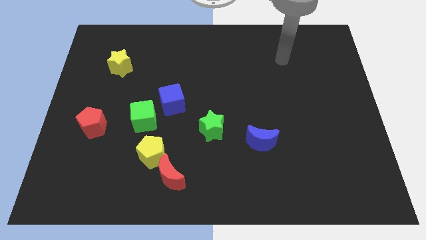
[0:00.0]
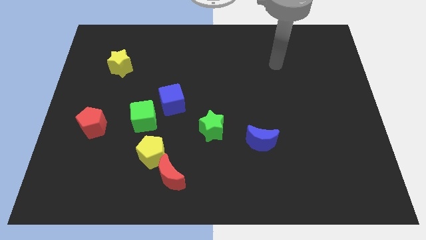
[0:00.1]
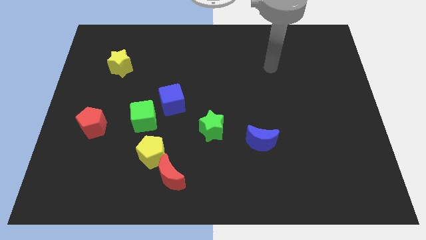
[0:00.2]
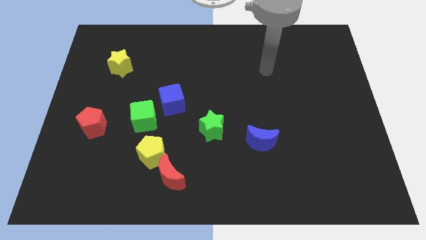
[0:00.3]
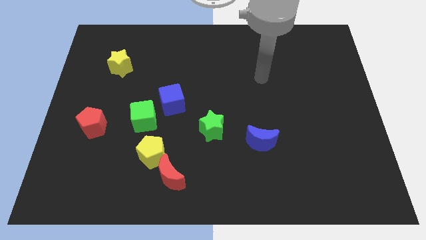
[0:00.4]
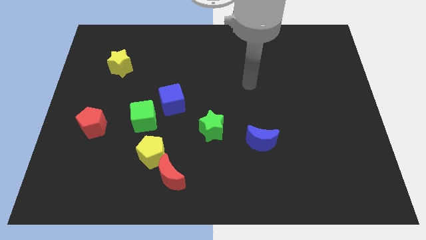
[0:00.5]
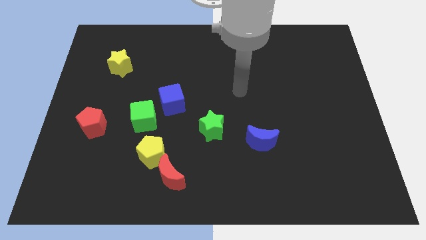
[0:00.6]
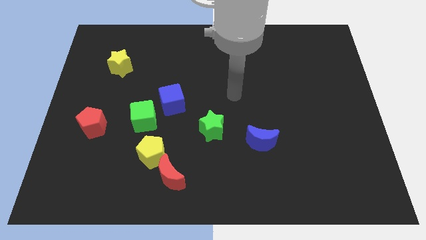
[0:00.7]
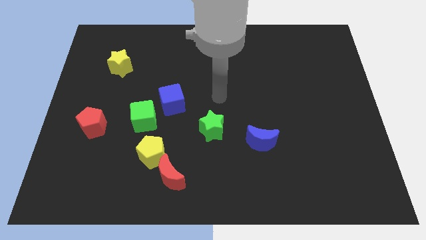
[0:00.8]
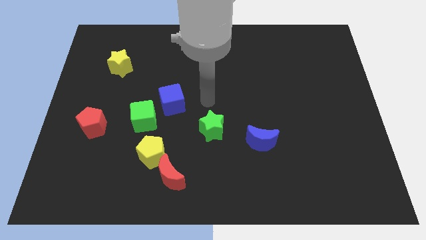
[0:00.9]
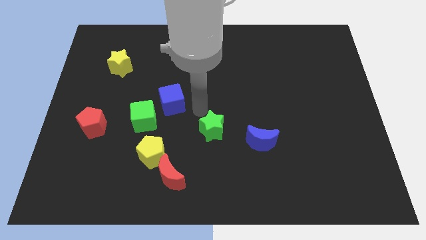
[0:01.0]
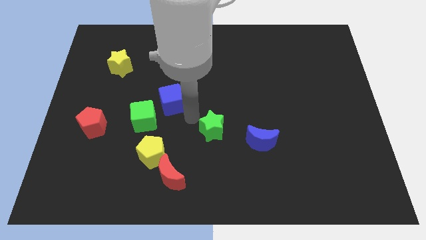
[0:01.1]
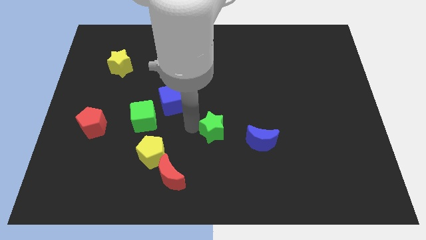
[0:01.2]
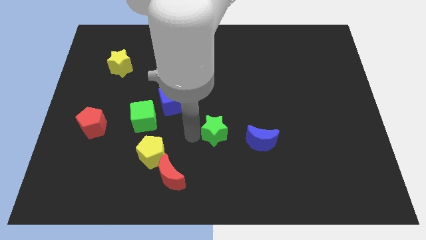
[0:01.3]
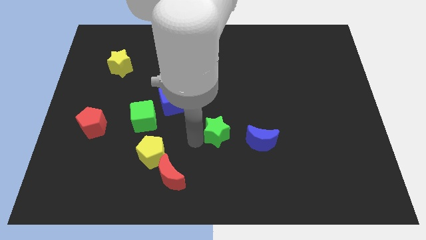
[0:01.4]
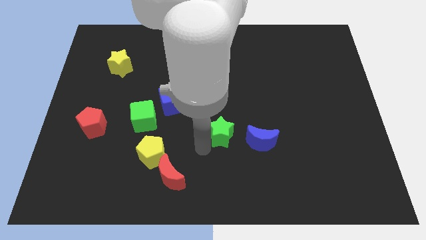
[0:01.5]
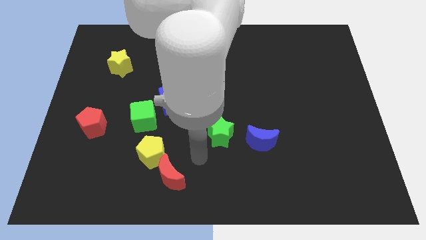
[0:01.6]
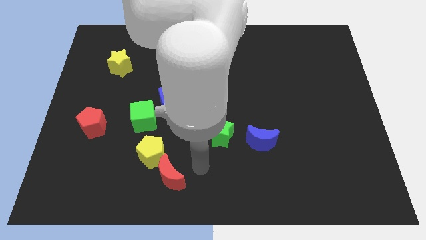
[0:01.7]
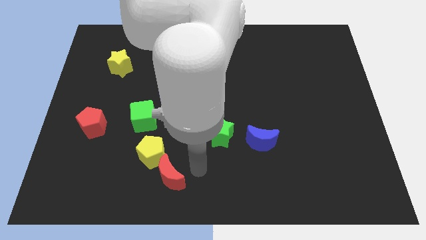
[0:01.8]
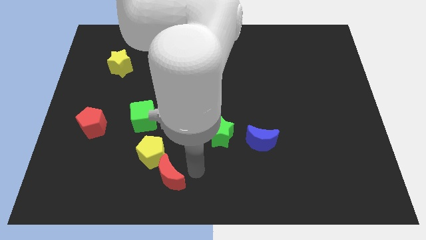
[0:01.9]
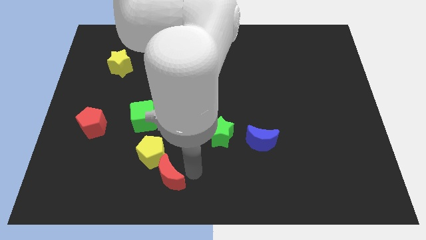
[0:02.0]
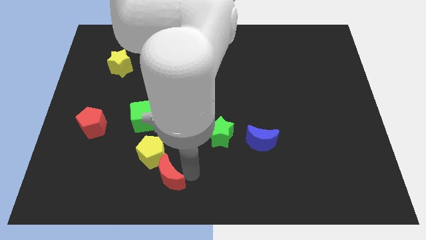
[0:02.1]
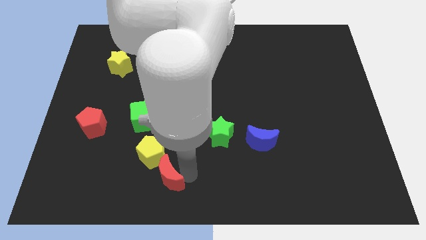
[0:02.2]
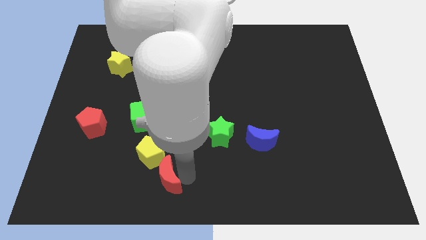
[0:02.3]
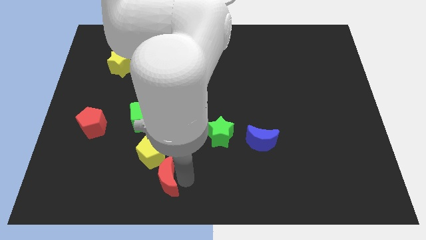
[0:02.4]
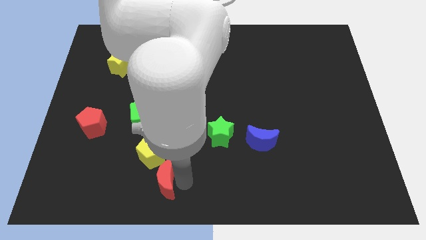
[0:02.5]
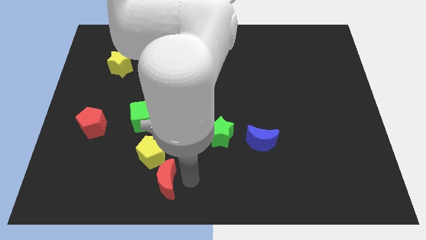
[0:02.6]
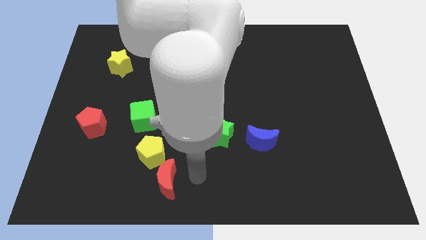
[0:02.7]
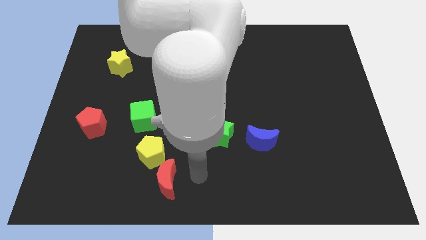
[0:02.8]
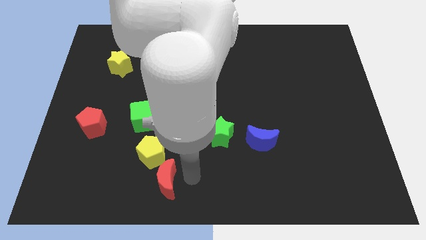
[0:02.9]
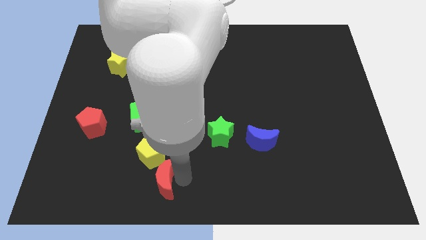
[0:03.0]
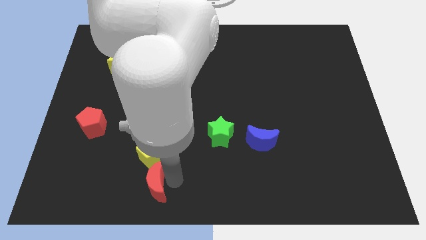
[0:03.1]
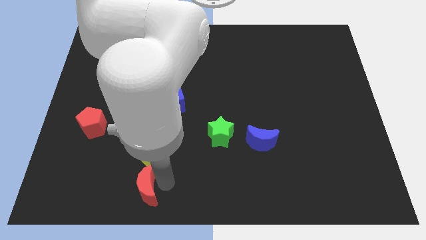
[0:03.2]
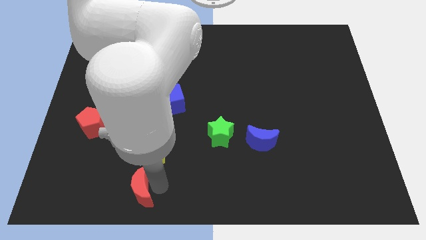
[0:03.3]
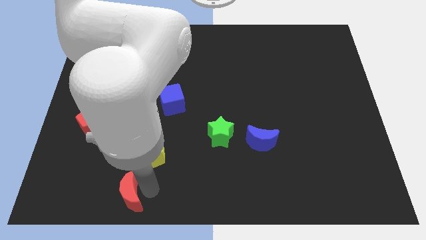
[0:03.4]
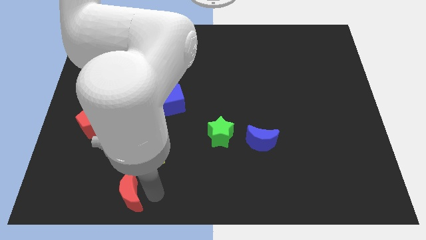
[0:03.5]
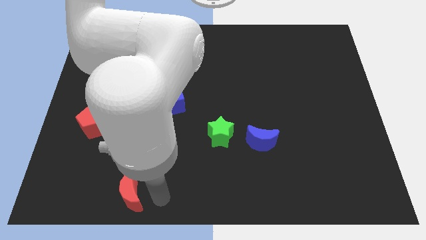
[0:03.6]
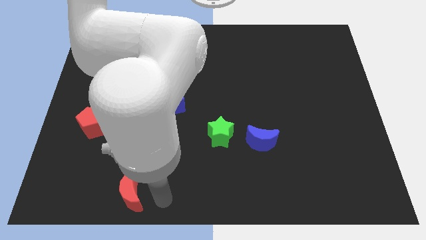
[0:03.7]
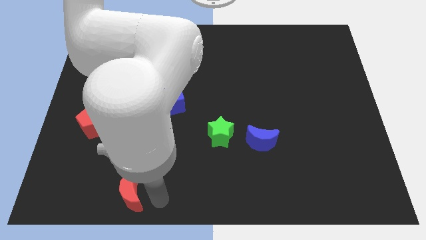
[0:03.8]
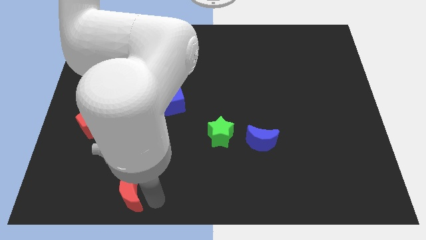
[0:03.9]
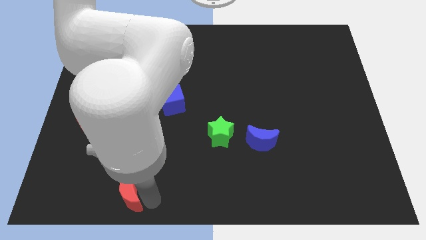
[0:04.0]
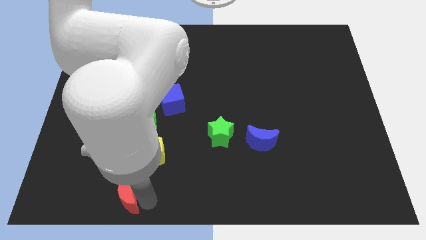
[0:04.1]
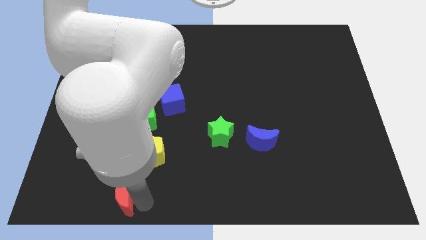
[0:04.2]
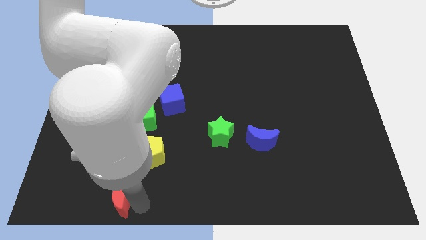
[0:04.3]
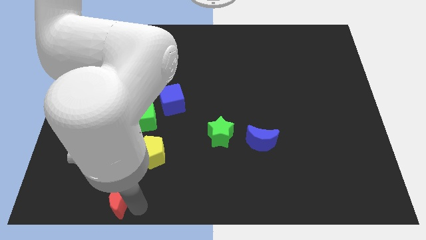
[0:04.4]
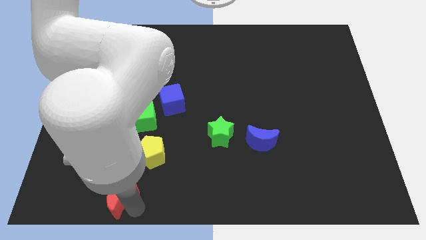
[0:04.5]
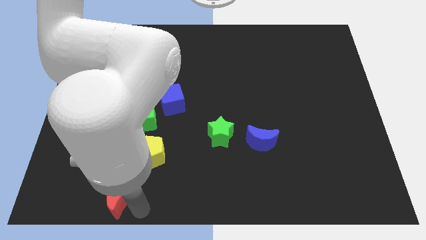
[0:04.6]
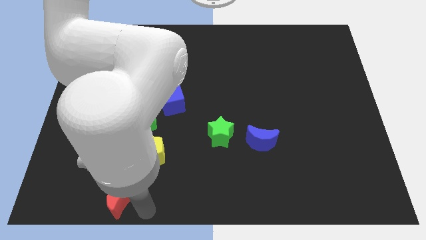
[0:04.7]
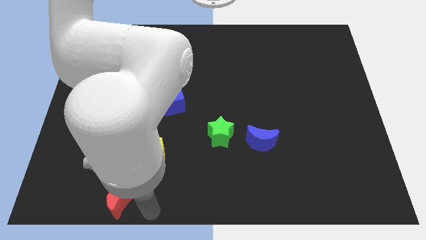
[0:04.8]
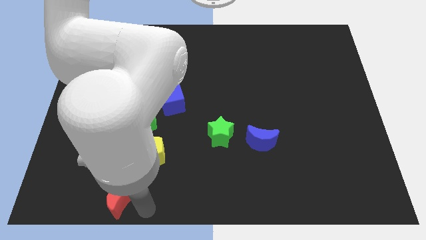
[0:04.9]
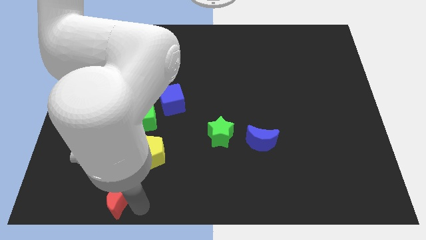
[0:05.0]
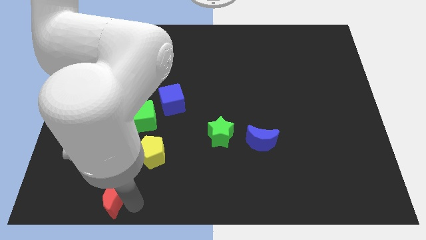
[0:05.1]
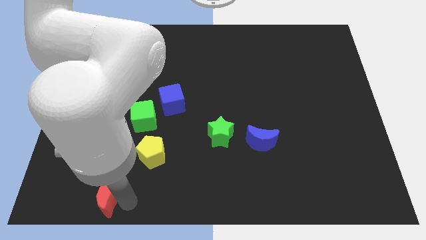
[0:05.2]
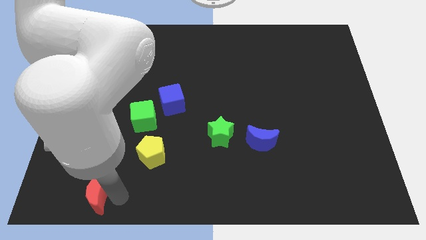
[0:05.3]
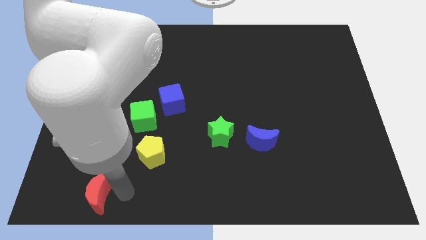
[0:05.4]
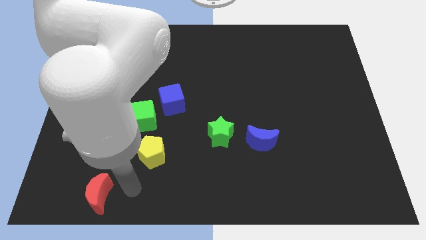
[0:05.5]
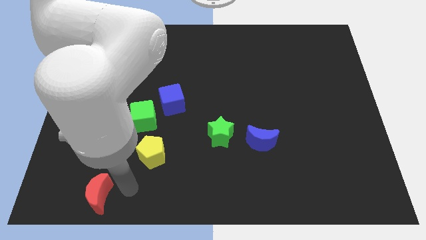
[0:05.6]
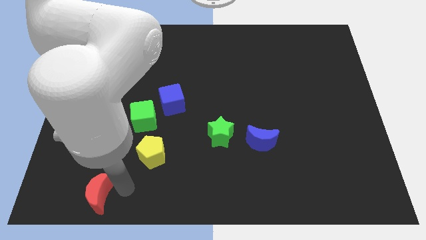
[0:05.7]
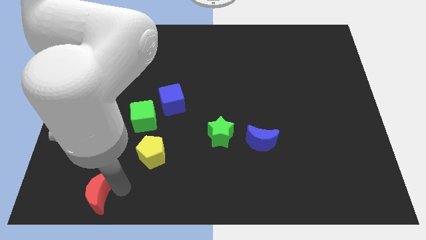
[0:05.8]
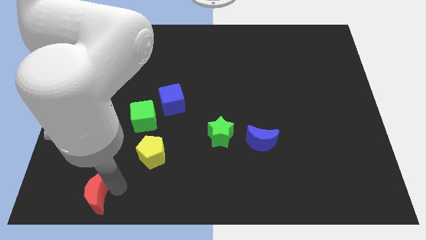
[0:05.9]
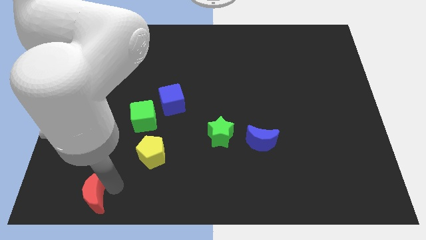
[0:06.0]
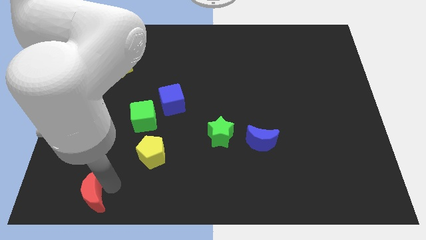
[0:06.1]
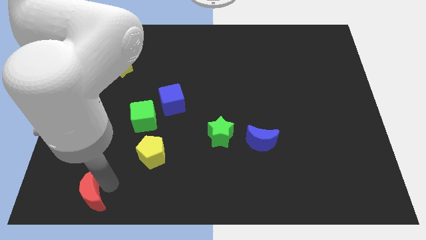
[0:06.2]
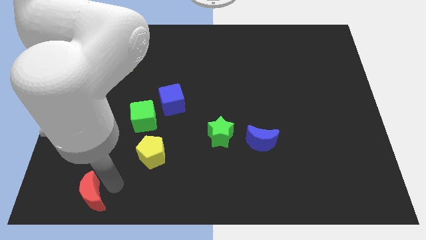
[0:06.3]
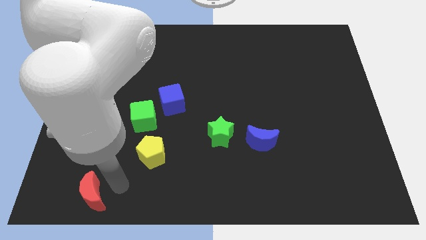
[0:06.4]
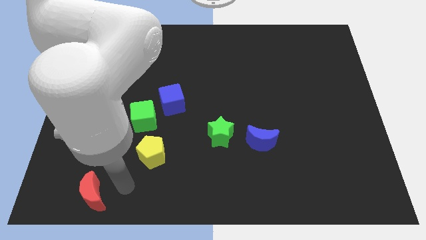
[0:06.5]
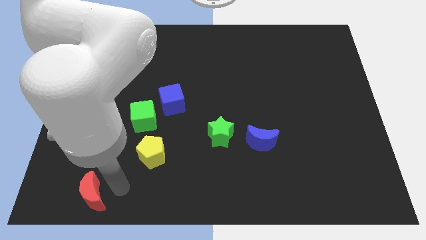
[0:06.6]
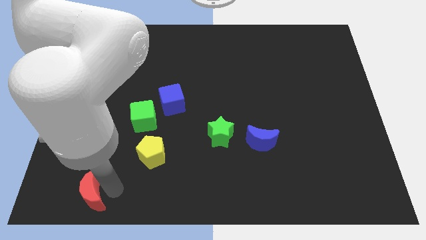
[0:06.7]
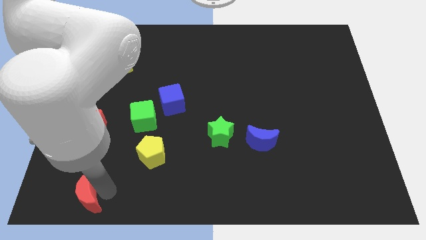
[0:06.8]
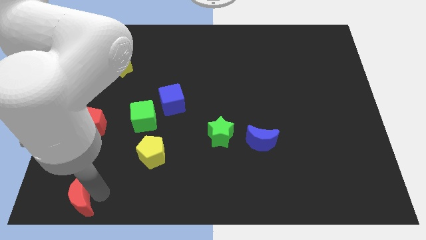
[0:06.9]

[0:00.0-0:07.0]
put the red moon to the bottom left
